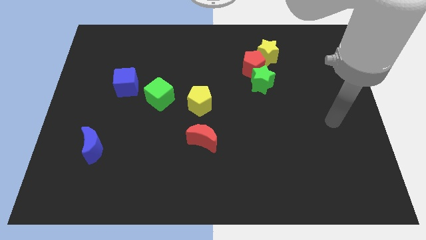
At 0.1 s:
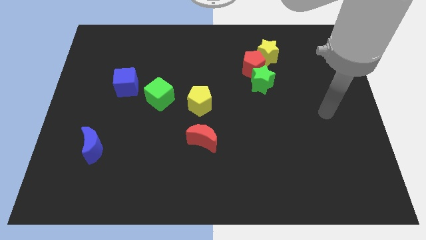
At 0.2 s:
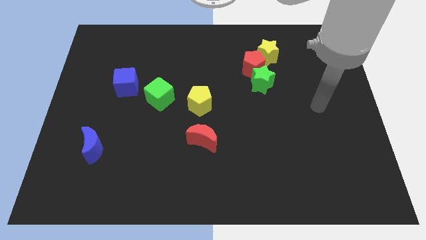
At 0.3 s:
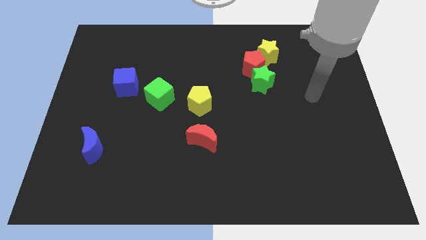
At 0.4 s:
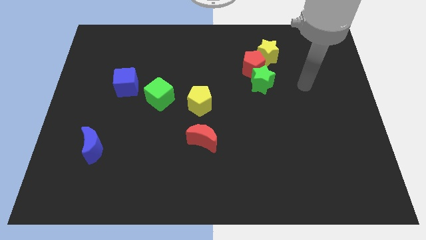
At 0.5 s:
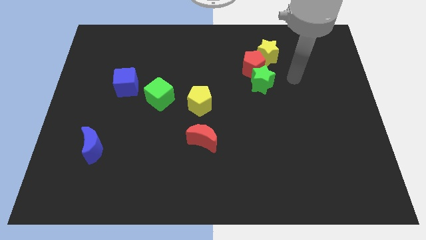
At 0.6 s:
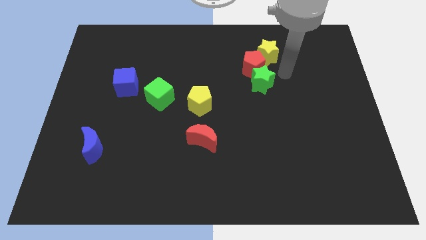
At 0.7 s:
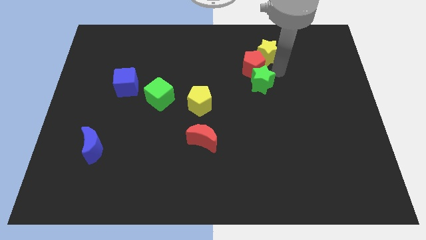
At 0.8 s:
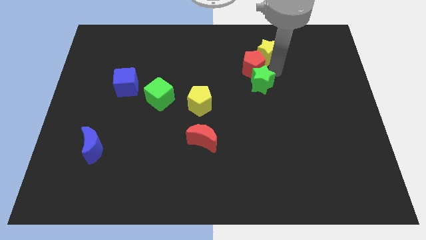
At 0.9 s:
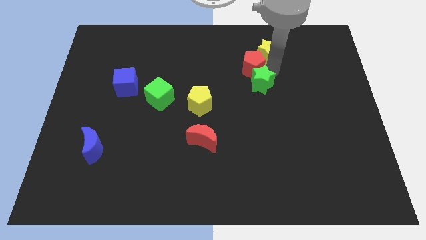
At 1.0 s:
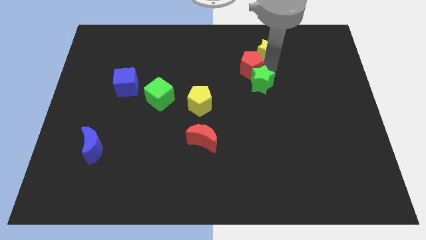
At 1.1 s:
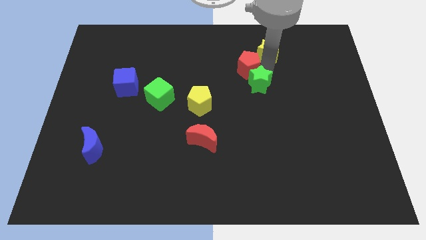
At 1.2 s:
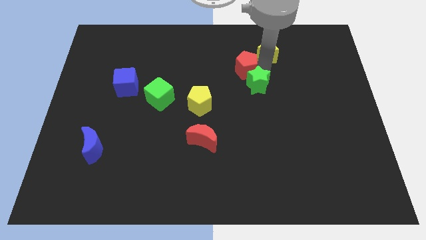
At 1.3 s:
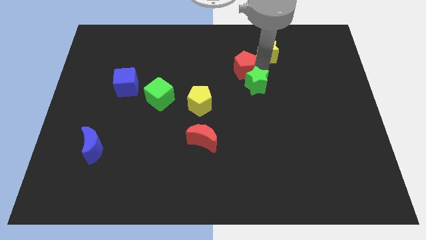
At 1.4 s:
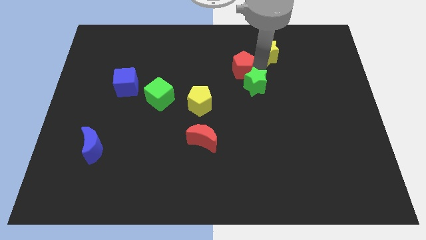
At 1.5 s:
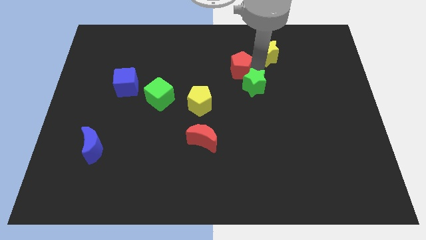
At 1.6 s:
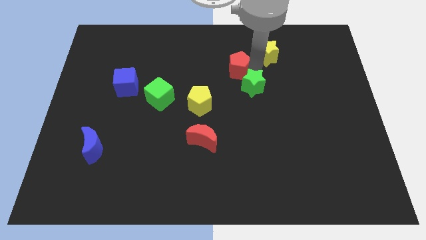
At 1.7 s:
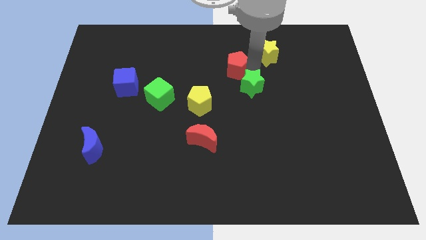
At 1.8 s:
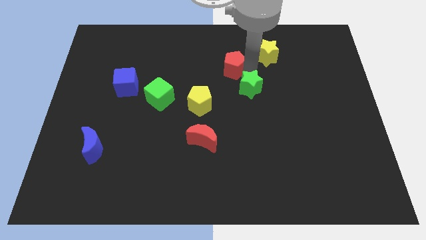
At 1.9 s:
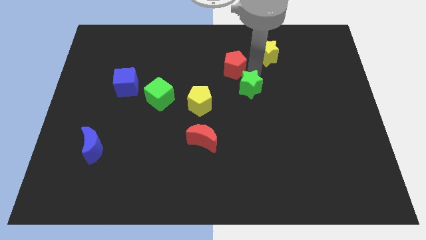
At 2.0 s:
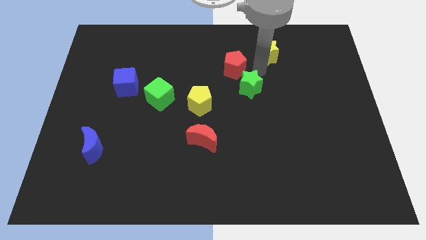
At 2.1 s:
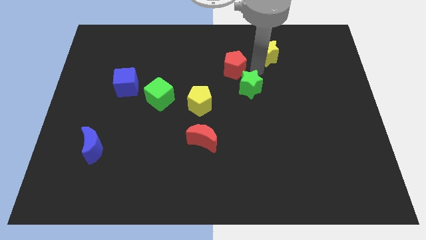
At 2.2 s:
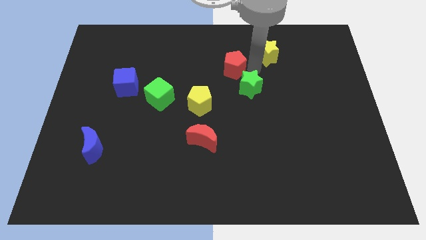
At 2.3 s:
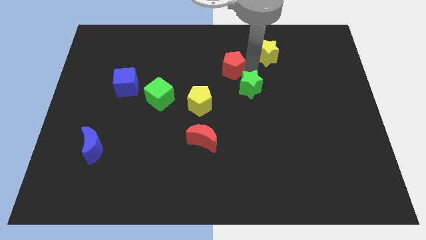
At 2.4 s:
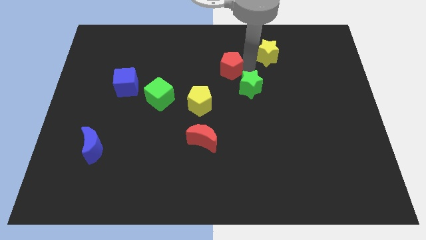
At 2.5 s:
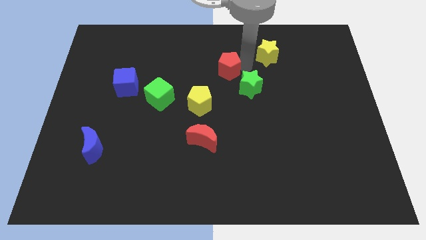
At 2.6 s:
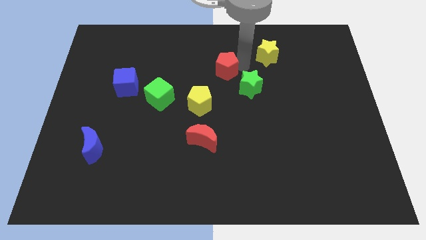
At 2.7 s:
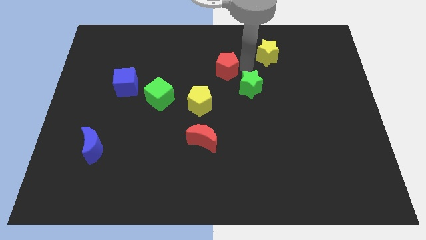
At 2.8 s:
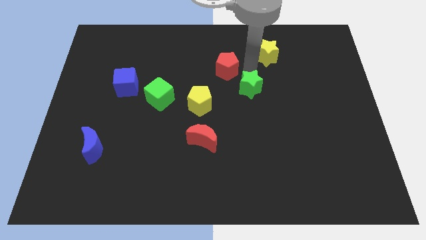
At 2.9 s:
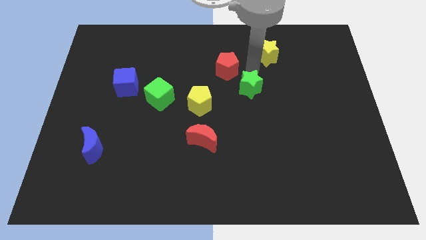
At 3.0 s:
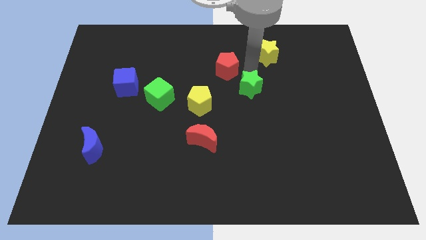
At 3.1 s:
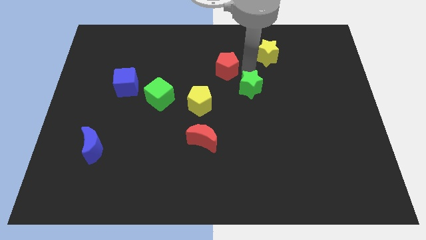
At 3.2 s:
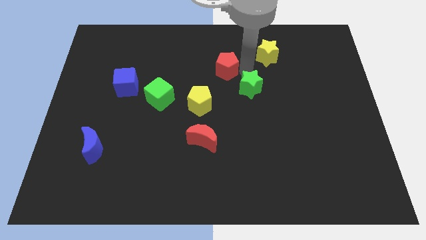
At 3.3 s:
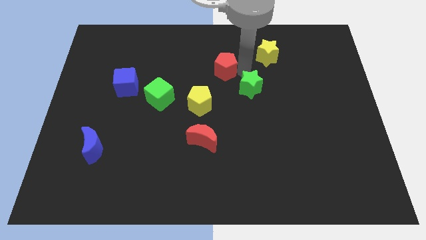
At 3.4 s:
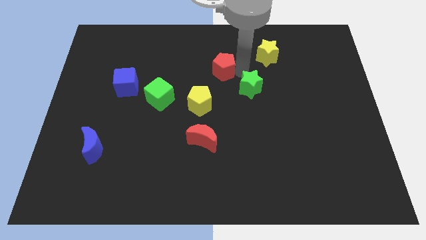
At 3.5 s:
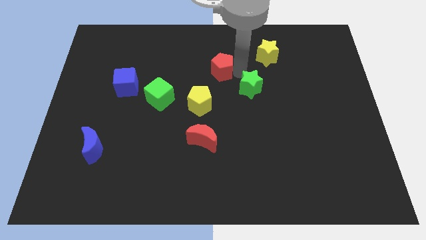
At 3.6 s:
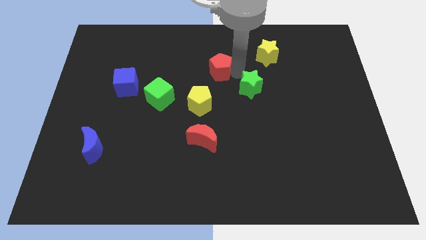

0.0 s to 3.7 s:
move the red pentagon away from the green star and yellow star

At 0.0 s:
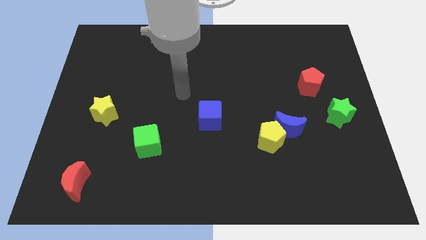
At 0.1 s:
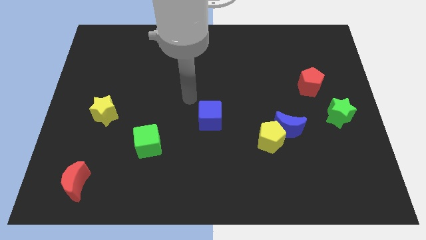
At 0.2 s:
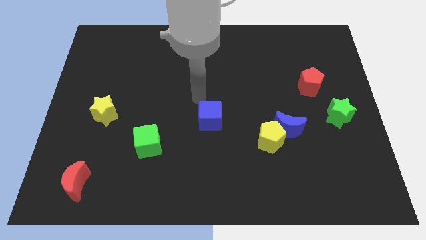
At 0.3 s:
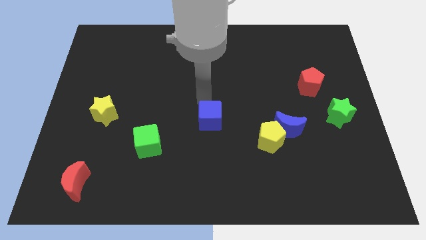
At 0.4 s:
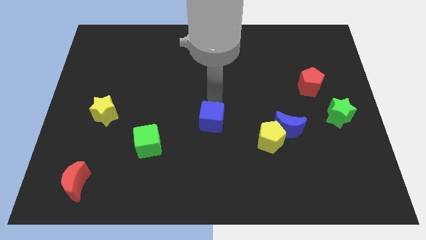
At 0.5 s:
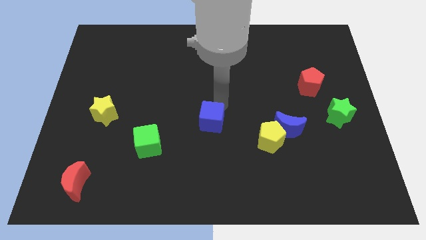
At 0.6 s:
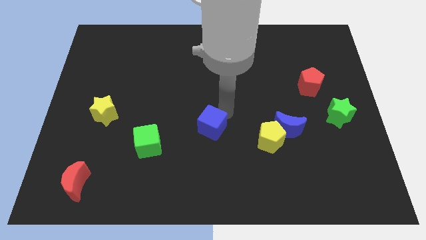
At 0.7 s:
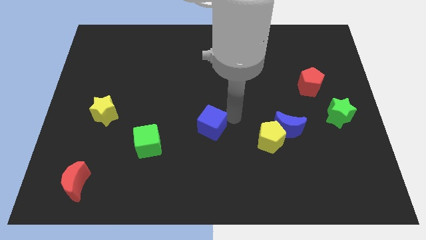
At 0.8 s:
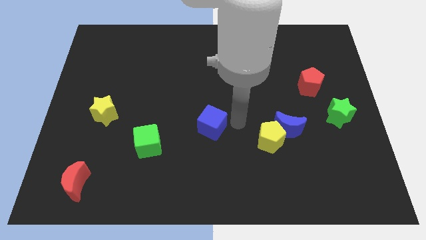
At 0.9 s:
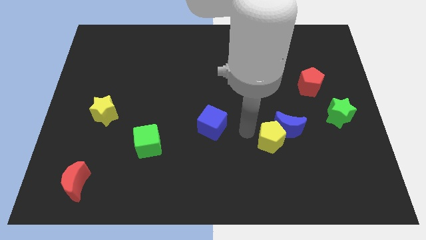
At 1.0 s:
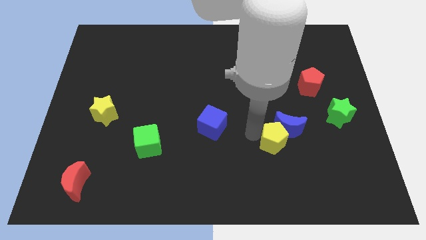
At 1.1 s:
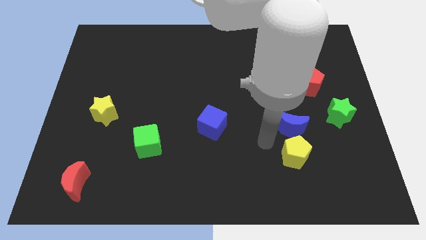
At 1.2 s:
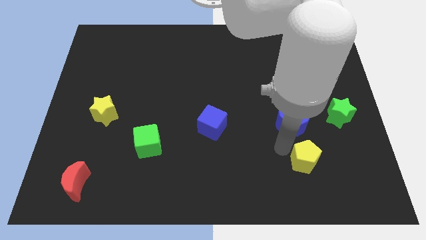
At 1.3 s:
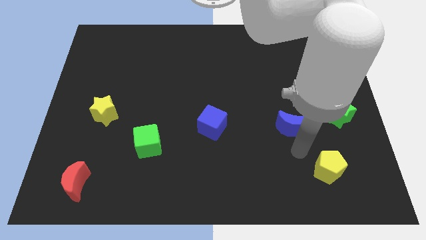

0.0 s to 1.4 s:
move the blue moon away from the yellow pentagon

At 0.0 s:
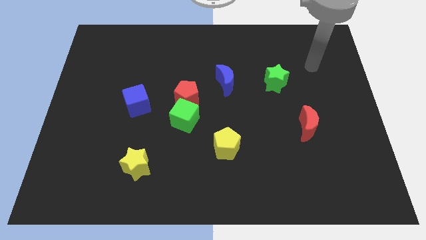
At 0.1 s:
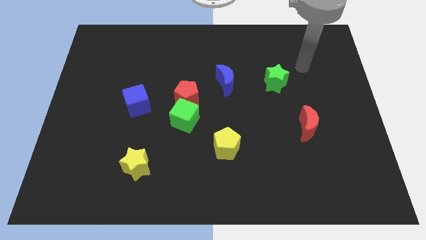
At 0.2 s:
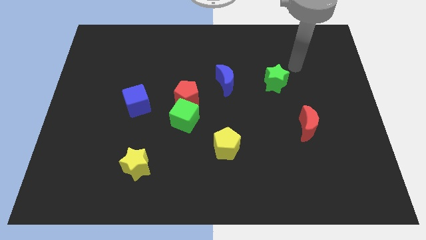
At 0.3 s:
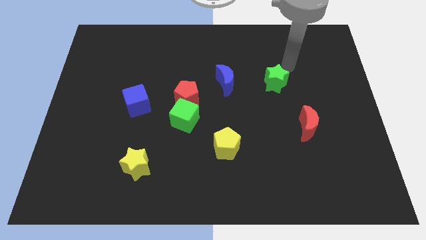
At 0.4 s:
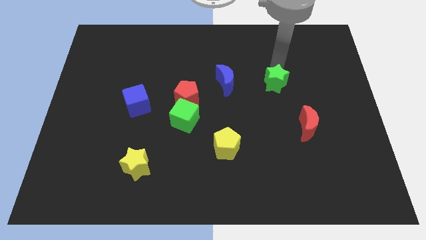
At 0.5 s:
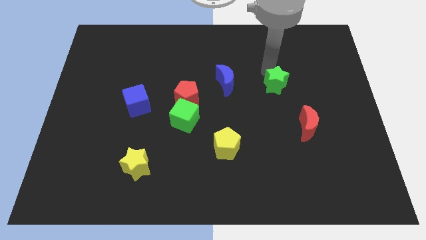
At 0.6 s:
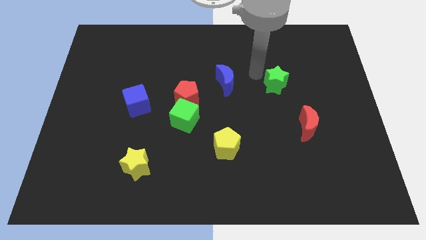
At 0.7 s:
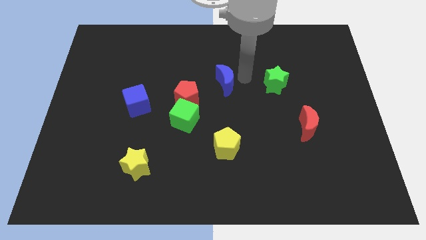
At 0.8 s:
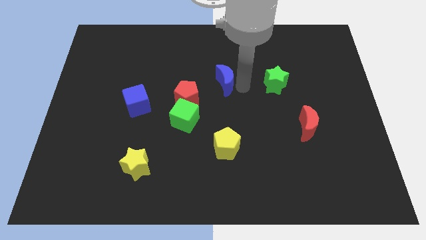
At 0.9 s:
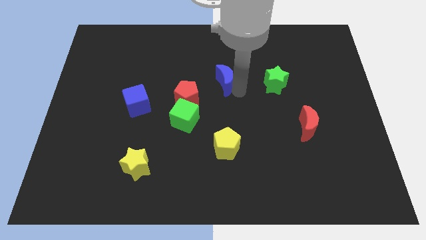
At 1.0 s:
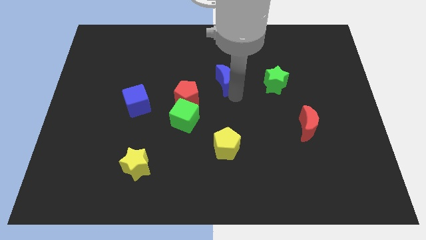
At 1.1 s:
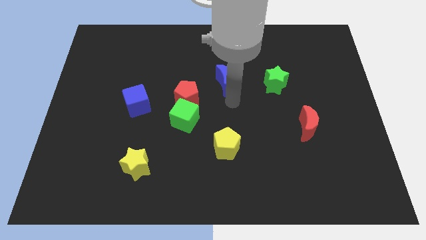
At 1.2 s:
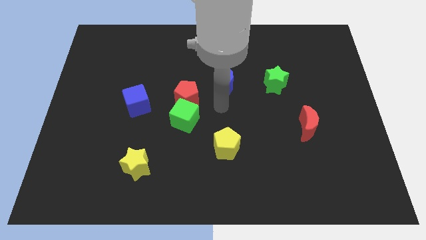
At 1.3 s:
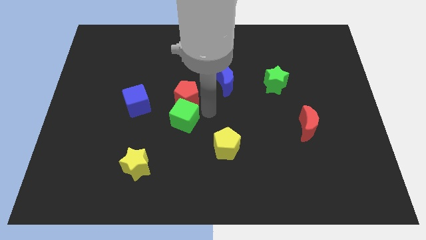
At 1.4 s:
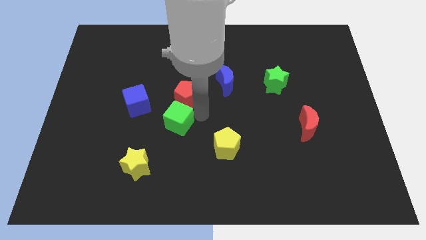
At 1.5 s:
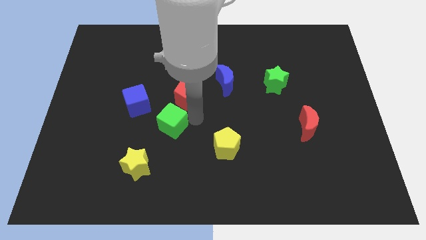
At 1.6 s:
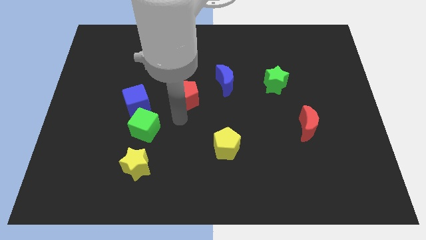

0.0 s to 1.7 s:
move the red pentagon away from the green cube

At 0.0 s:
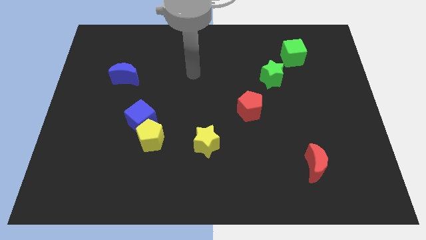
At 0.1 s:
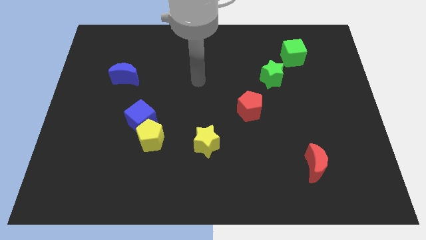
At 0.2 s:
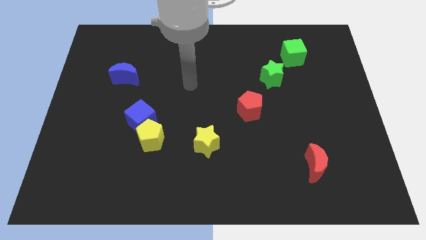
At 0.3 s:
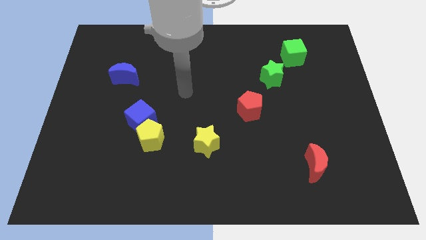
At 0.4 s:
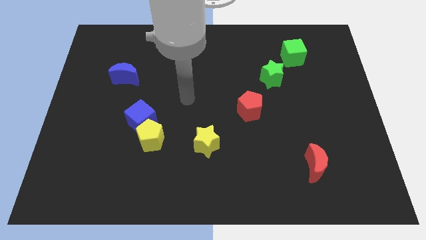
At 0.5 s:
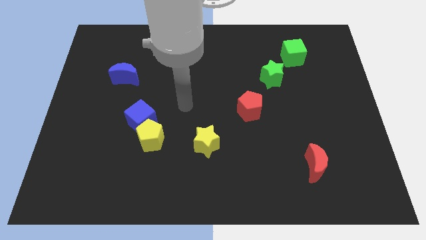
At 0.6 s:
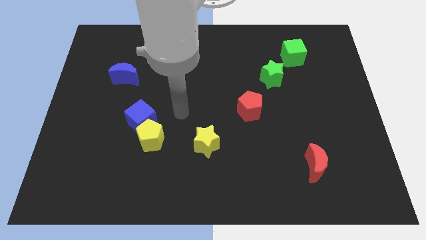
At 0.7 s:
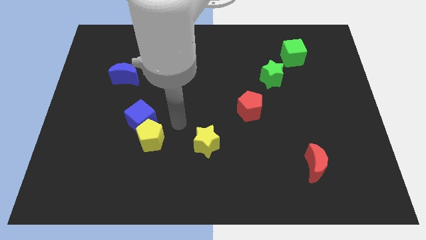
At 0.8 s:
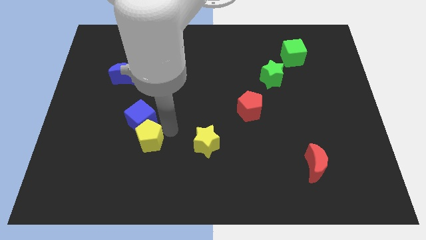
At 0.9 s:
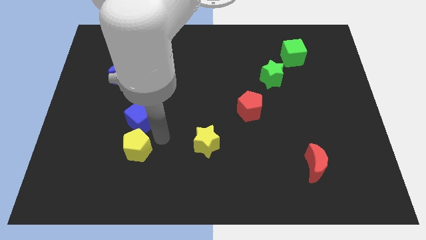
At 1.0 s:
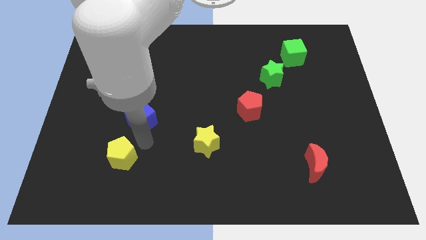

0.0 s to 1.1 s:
pull the blue cube apart from the yellow pentagon

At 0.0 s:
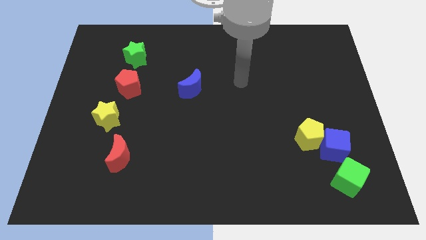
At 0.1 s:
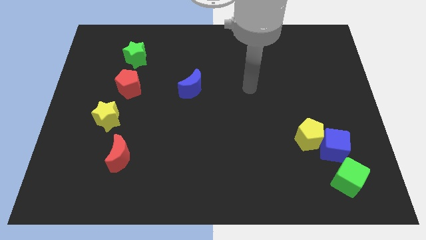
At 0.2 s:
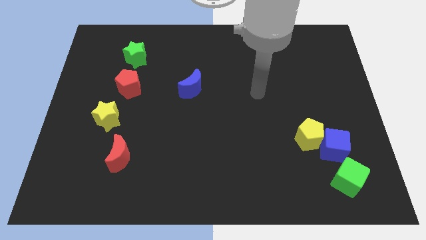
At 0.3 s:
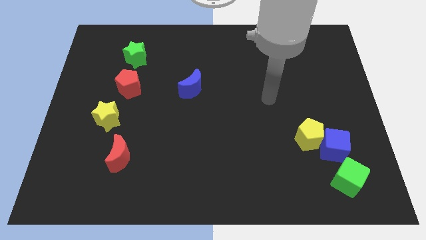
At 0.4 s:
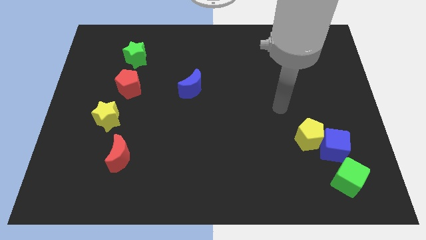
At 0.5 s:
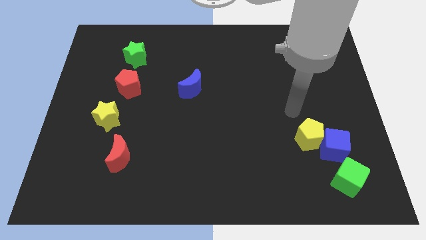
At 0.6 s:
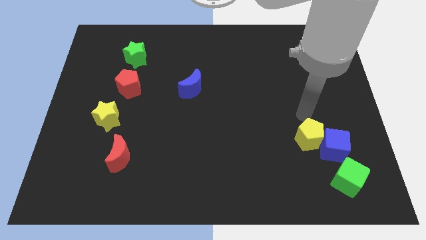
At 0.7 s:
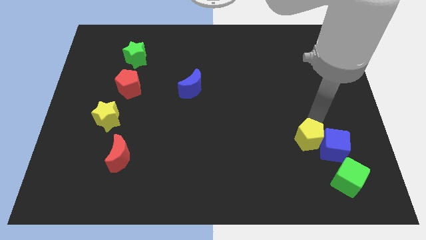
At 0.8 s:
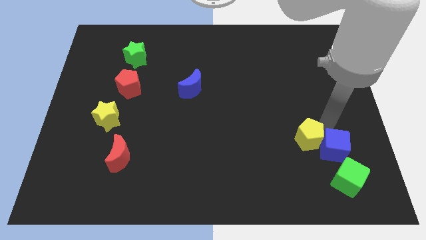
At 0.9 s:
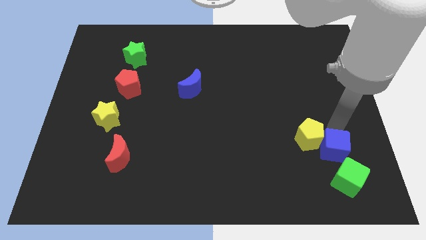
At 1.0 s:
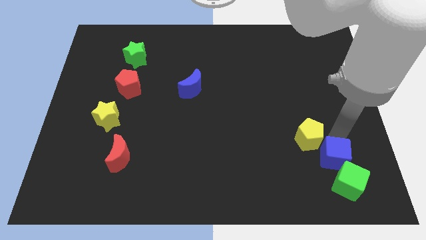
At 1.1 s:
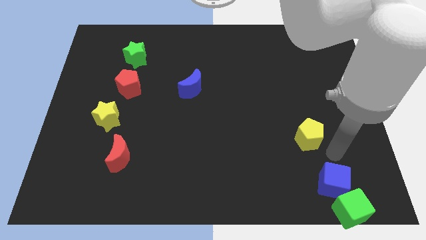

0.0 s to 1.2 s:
move the yellow pentagon away from the blue cube

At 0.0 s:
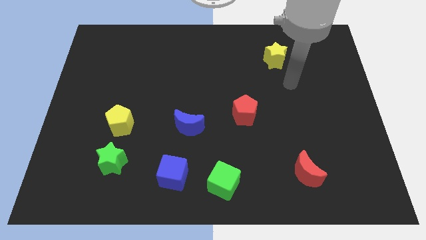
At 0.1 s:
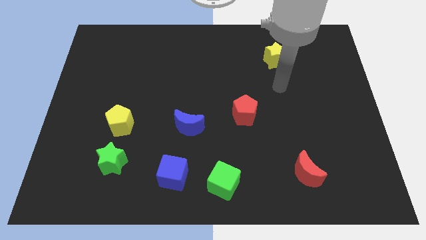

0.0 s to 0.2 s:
move the green star away from the yellow pentagon
